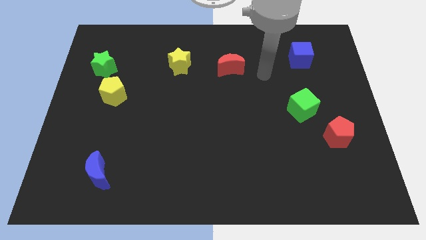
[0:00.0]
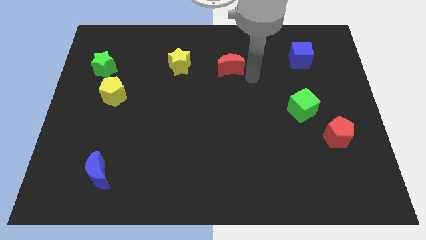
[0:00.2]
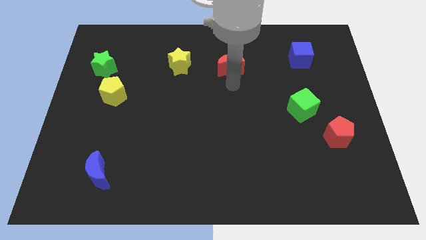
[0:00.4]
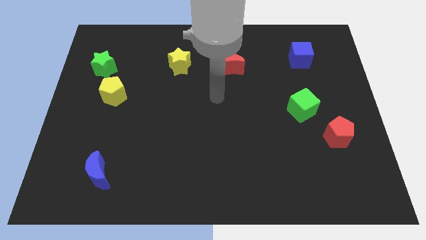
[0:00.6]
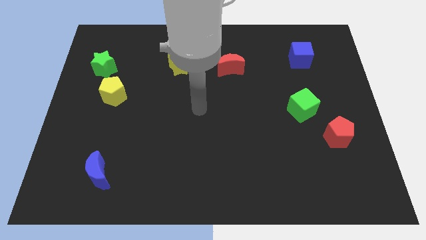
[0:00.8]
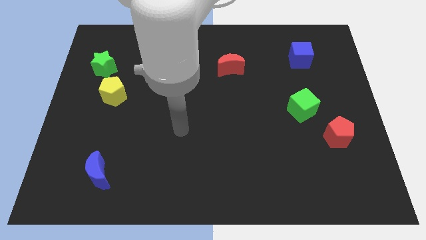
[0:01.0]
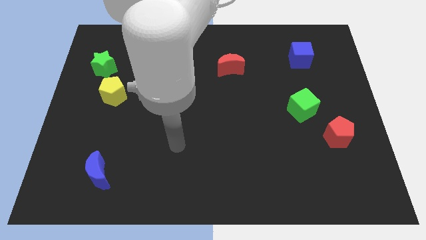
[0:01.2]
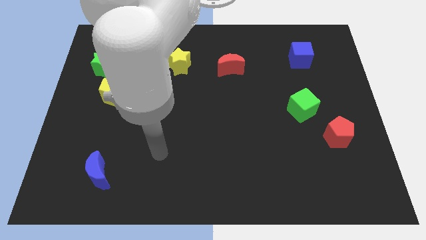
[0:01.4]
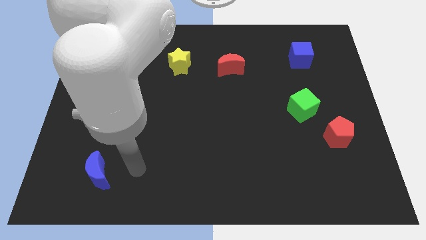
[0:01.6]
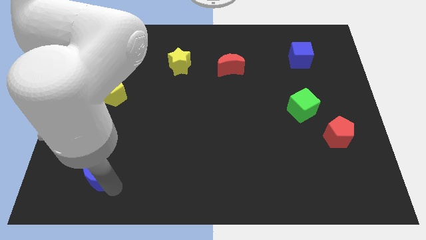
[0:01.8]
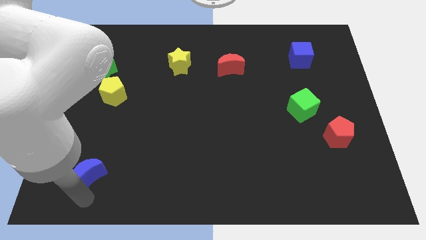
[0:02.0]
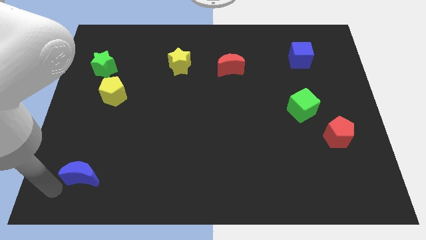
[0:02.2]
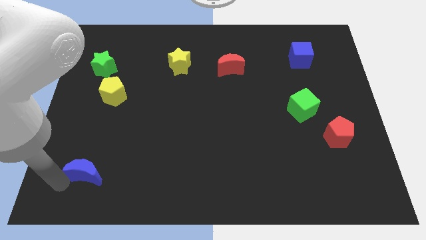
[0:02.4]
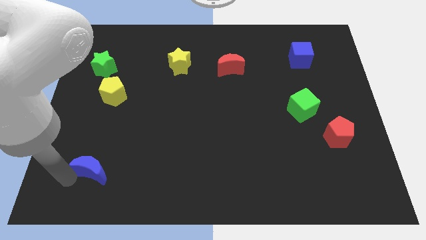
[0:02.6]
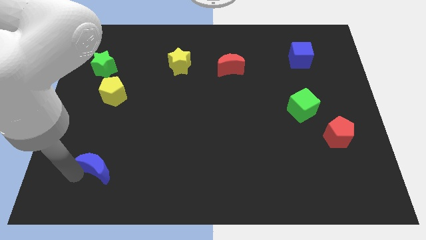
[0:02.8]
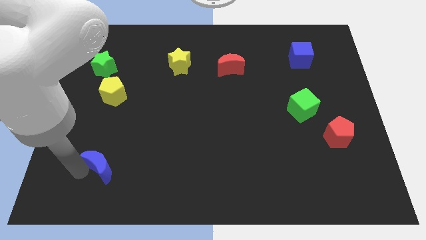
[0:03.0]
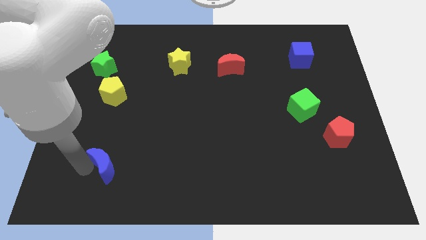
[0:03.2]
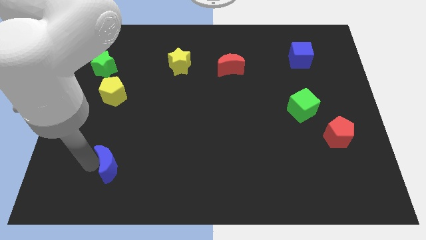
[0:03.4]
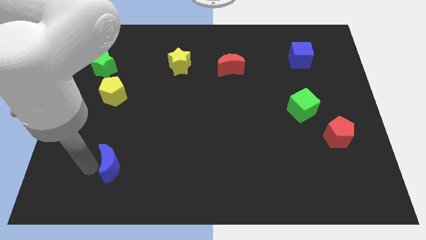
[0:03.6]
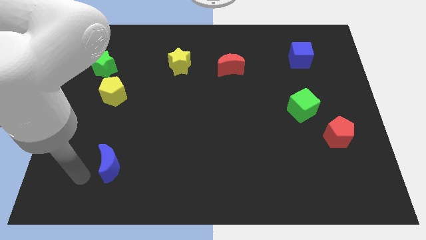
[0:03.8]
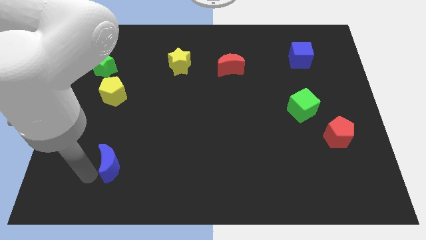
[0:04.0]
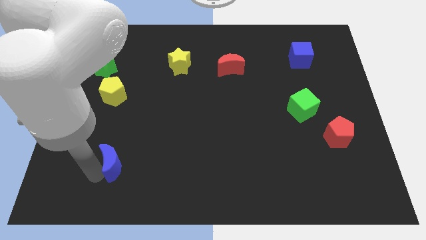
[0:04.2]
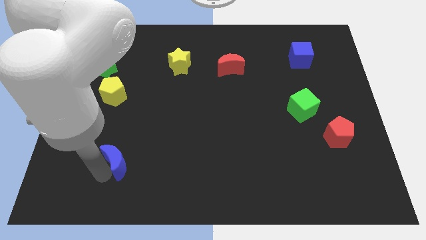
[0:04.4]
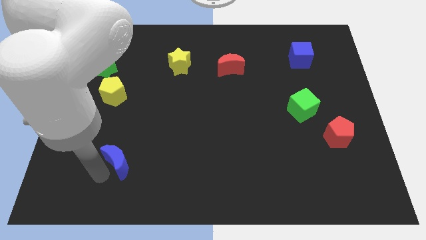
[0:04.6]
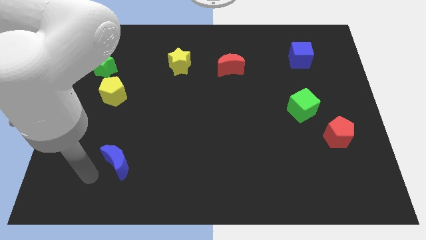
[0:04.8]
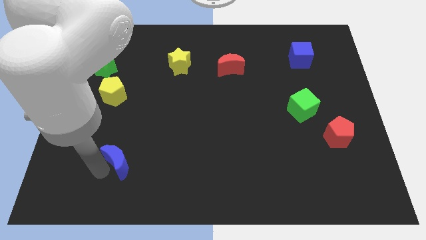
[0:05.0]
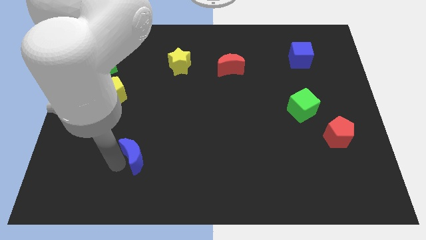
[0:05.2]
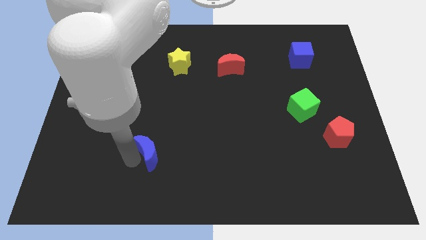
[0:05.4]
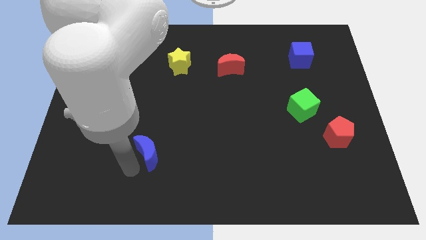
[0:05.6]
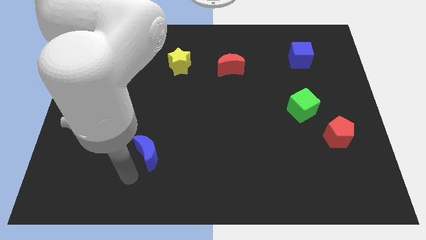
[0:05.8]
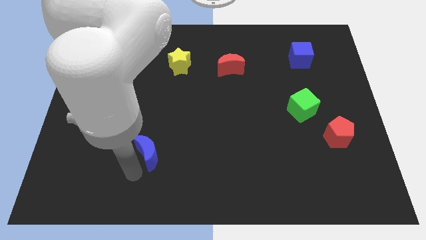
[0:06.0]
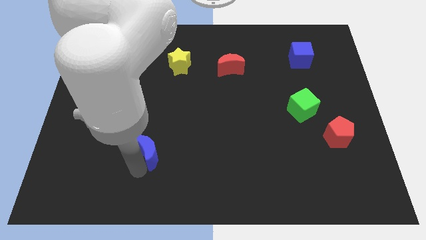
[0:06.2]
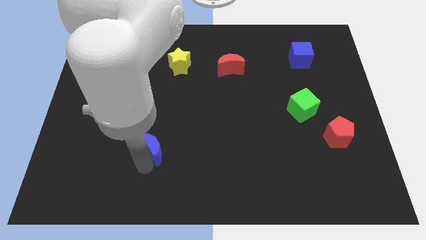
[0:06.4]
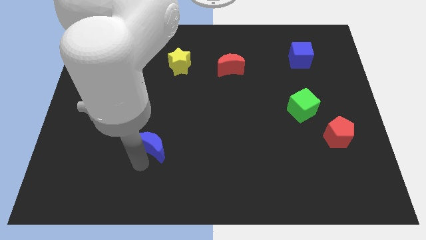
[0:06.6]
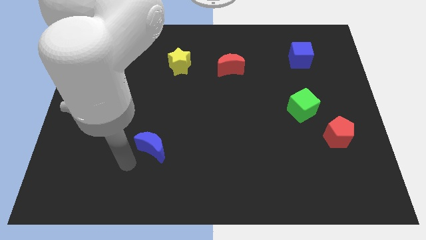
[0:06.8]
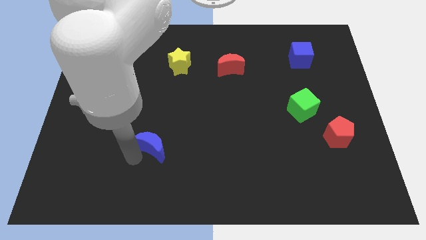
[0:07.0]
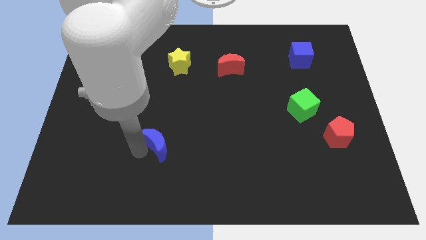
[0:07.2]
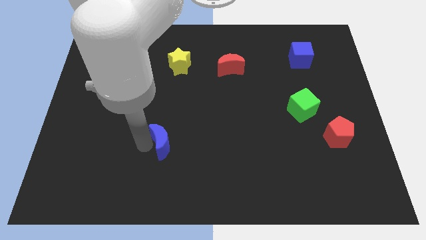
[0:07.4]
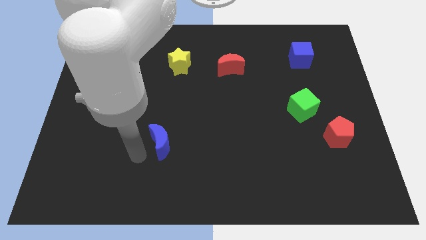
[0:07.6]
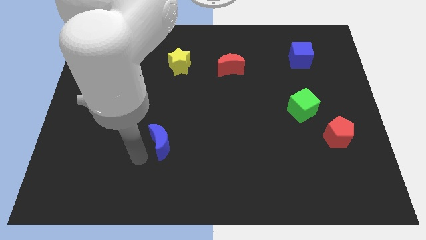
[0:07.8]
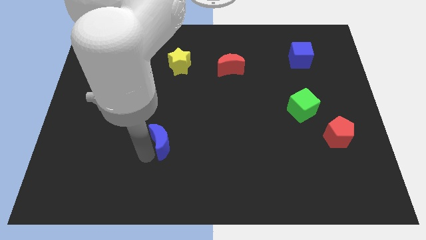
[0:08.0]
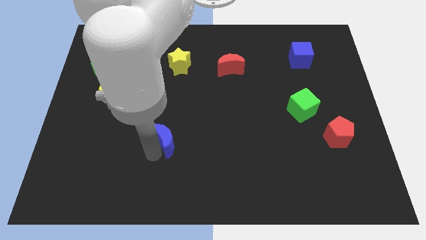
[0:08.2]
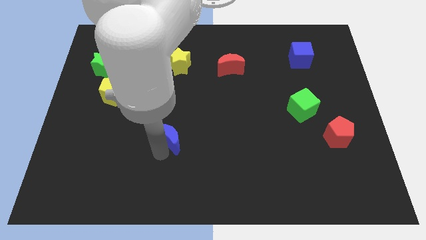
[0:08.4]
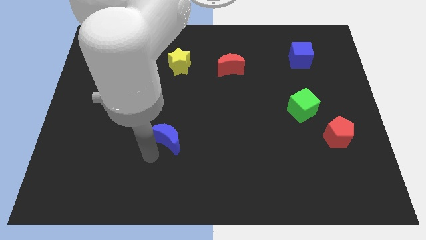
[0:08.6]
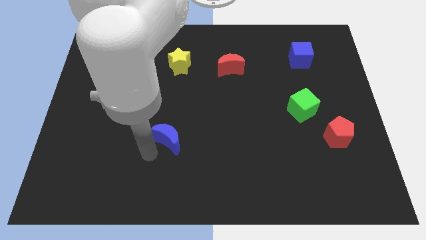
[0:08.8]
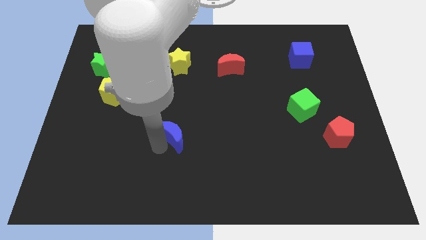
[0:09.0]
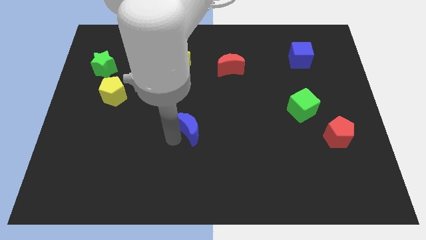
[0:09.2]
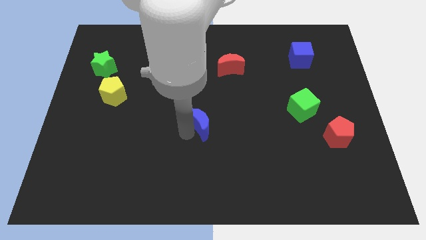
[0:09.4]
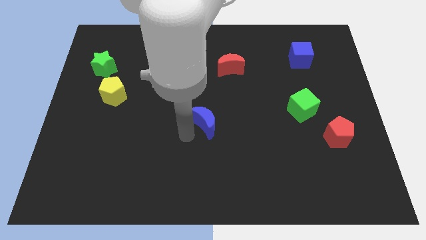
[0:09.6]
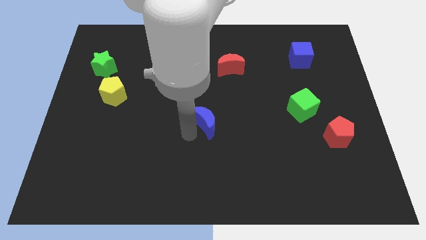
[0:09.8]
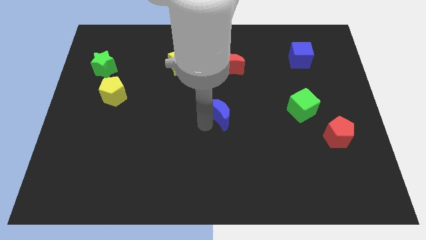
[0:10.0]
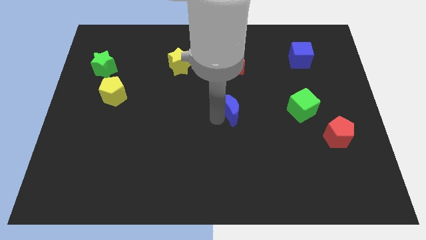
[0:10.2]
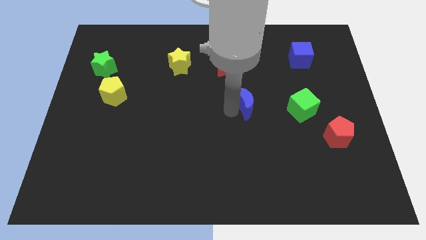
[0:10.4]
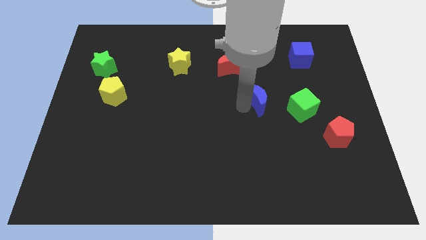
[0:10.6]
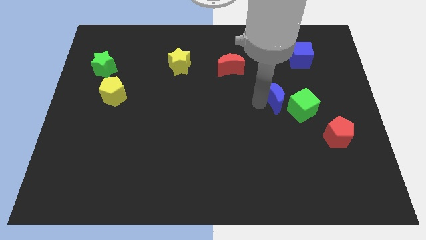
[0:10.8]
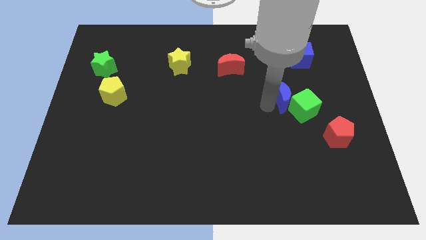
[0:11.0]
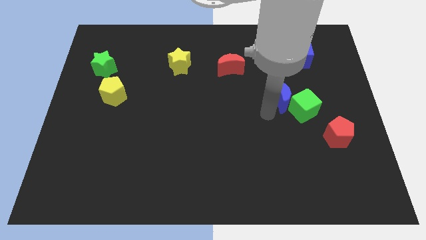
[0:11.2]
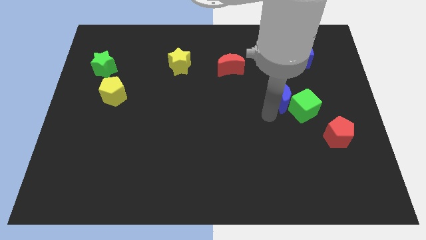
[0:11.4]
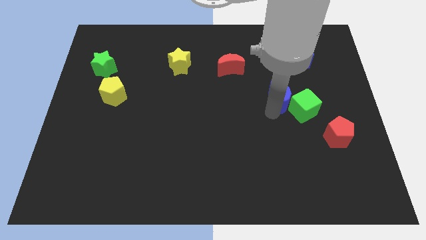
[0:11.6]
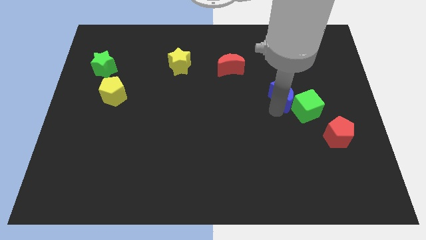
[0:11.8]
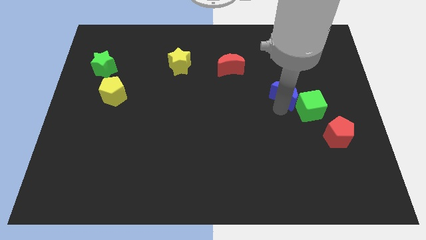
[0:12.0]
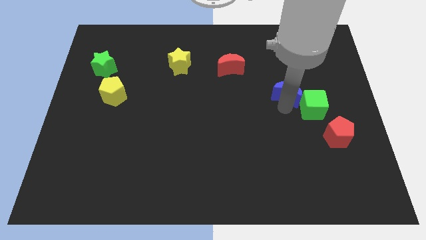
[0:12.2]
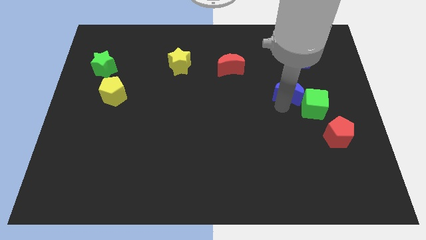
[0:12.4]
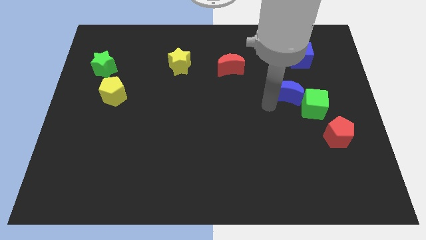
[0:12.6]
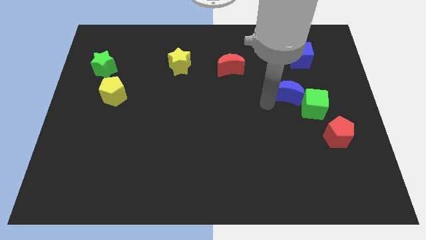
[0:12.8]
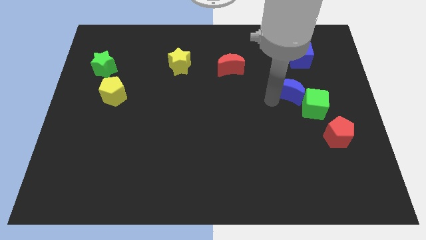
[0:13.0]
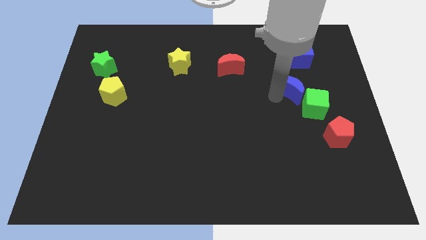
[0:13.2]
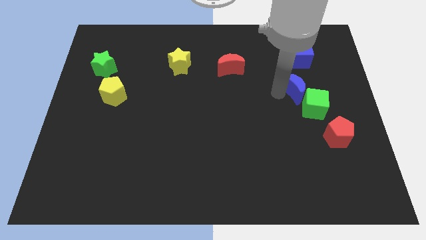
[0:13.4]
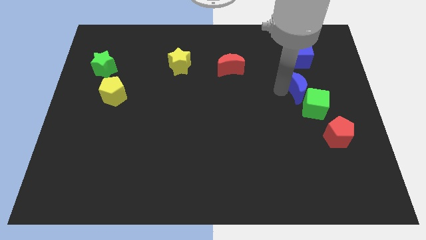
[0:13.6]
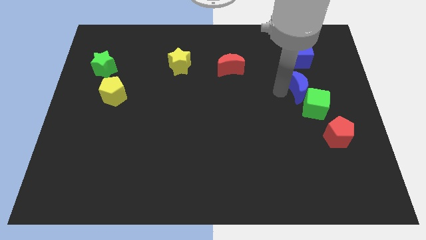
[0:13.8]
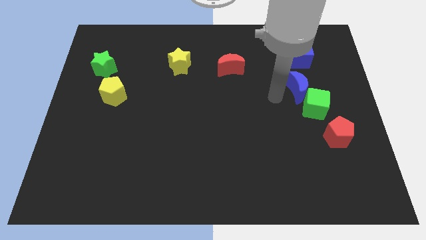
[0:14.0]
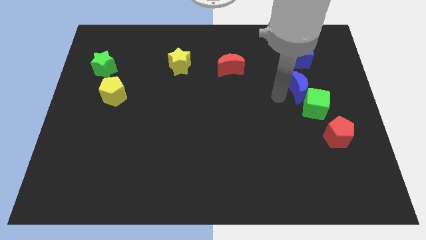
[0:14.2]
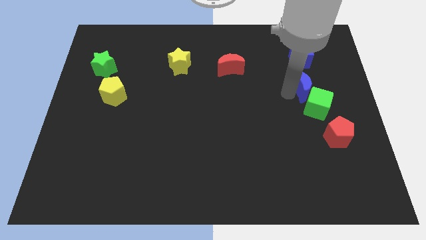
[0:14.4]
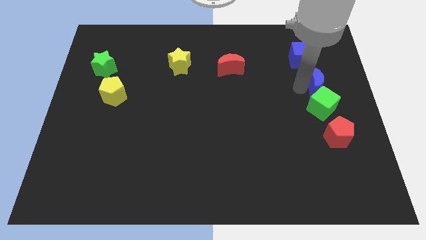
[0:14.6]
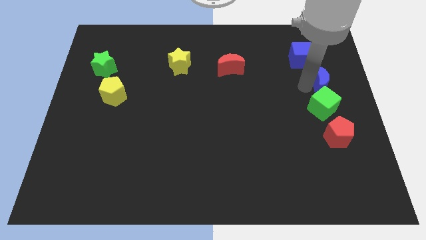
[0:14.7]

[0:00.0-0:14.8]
put the blue moon to the center right

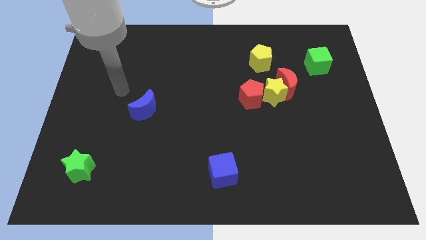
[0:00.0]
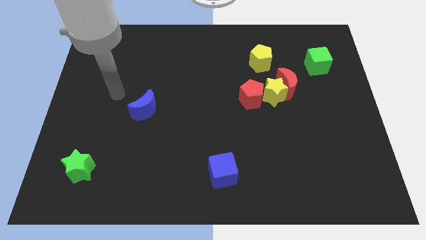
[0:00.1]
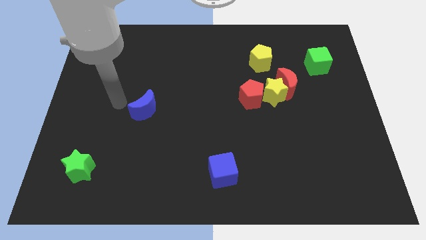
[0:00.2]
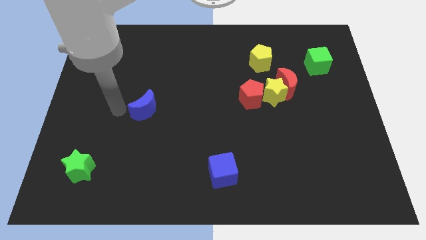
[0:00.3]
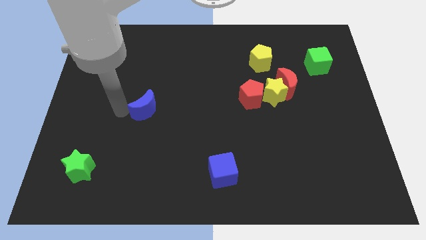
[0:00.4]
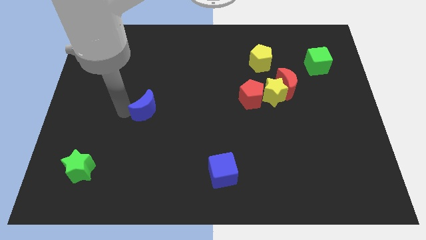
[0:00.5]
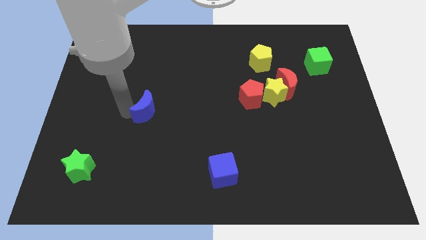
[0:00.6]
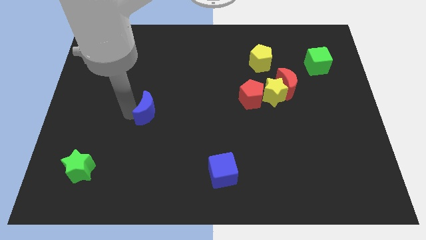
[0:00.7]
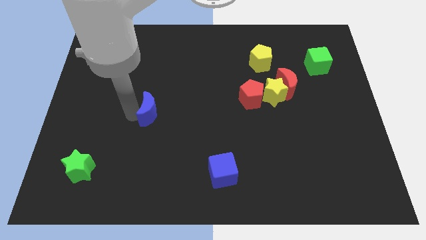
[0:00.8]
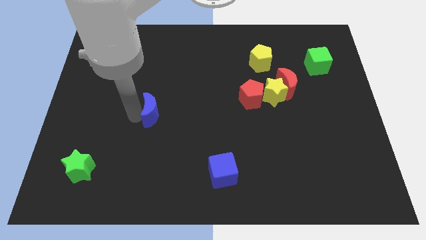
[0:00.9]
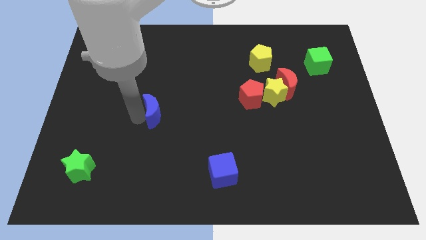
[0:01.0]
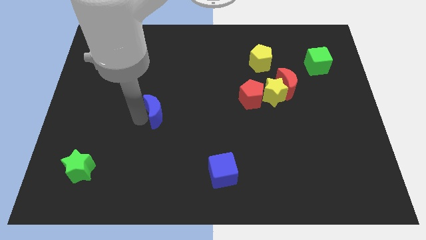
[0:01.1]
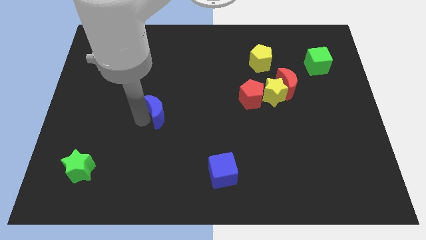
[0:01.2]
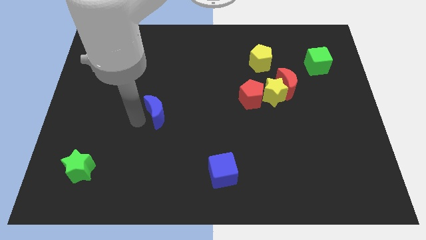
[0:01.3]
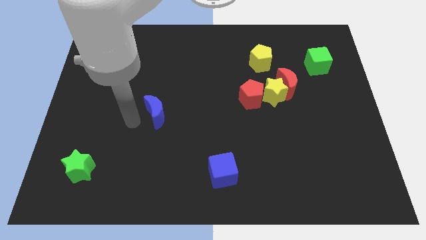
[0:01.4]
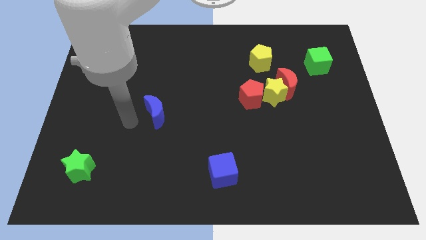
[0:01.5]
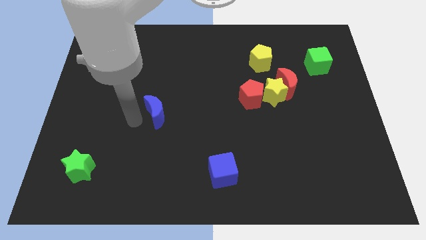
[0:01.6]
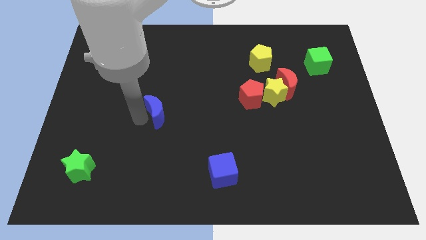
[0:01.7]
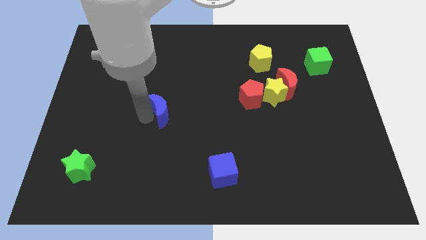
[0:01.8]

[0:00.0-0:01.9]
move the blue moon to the center
